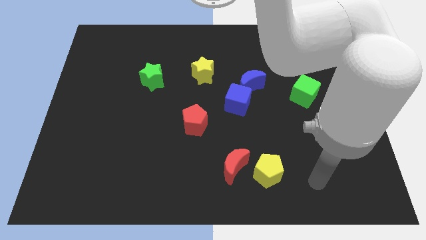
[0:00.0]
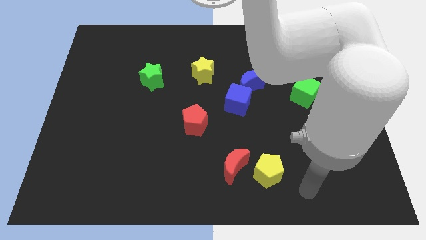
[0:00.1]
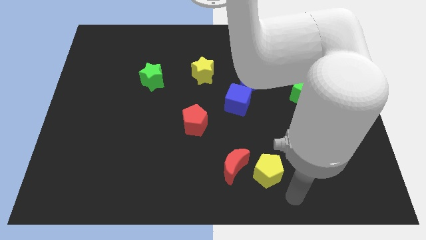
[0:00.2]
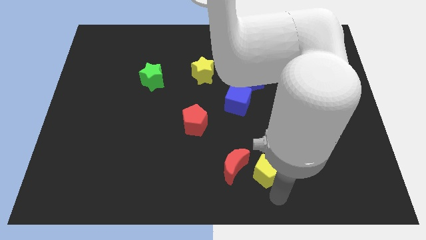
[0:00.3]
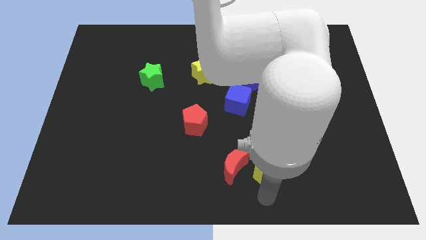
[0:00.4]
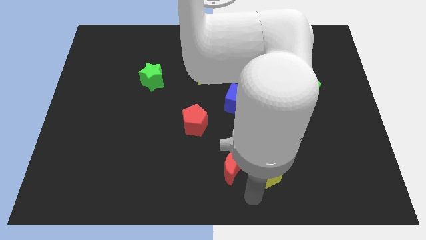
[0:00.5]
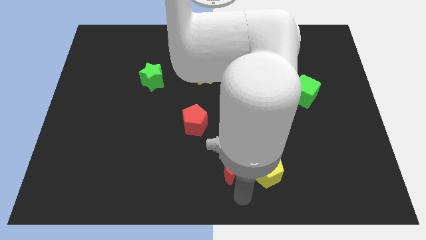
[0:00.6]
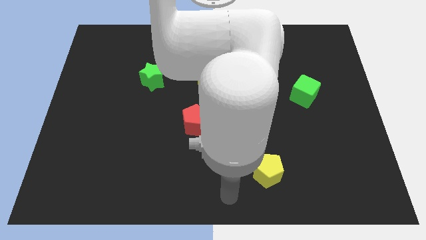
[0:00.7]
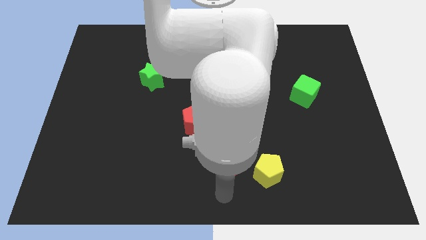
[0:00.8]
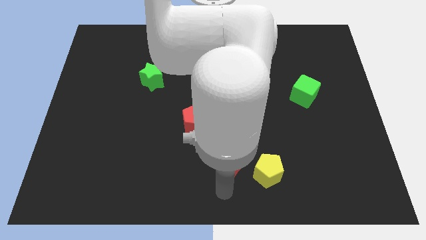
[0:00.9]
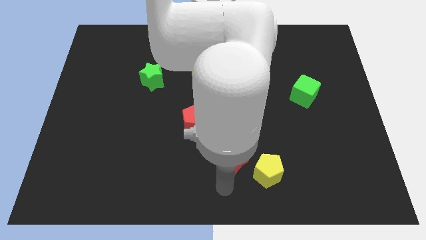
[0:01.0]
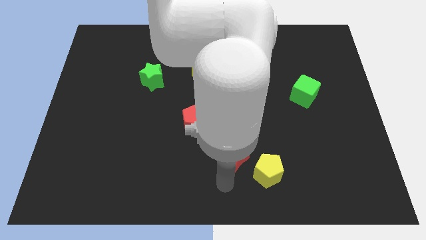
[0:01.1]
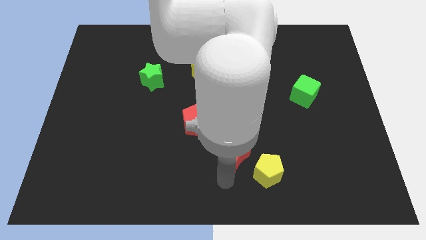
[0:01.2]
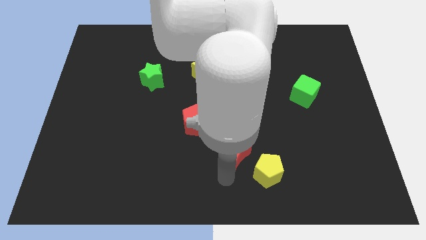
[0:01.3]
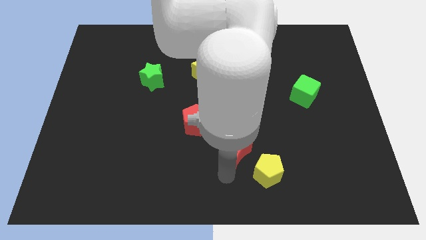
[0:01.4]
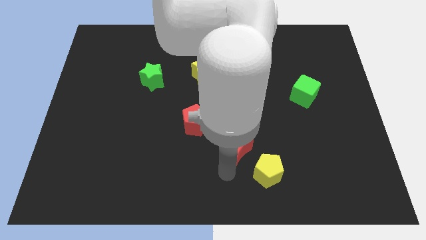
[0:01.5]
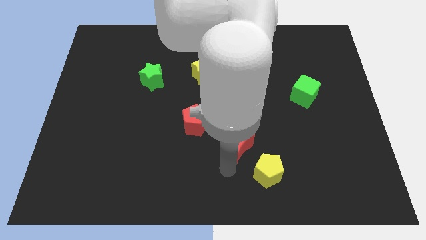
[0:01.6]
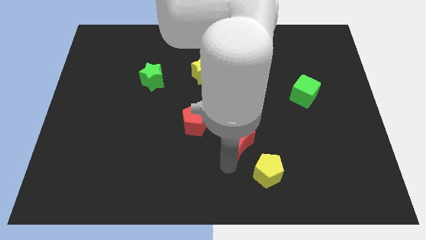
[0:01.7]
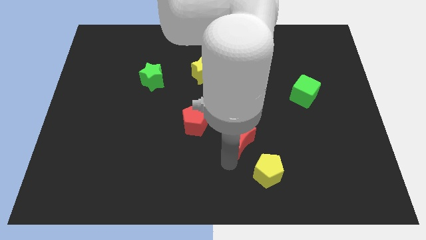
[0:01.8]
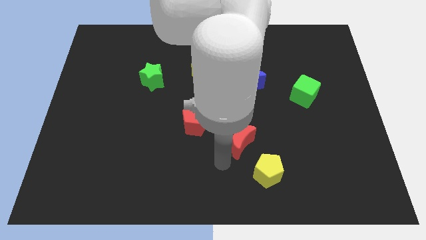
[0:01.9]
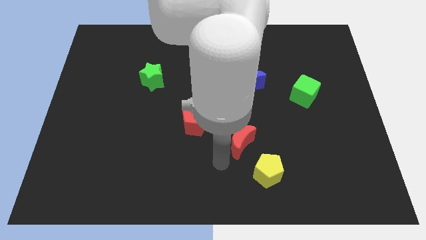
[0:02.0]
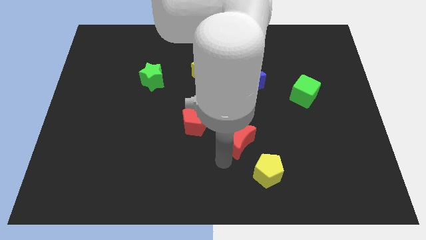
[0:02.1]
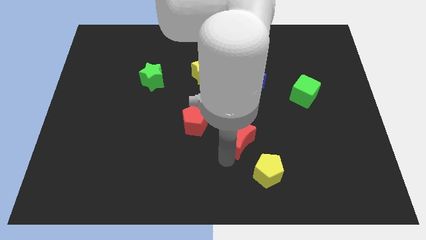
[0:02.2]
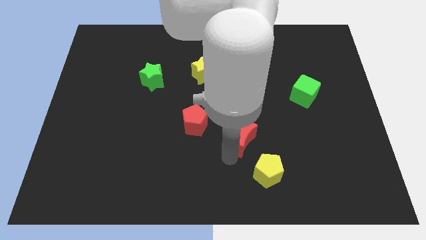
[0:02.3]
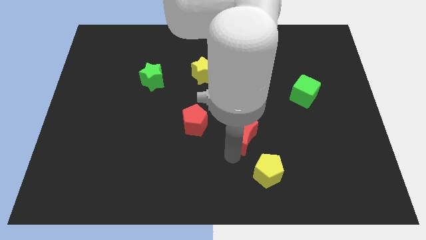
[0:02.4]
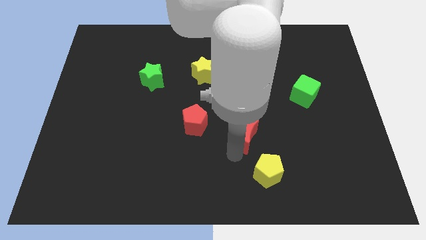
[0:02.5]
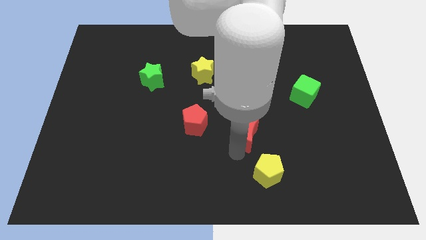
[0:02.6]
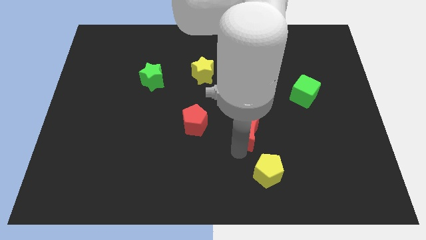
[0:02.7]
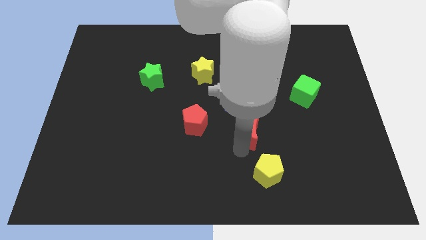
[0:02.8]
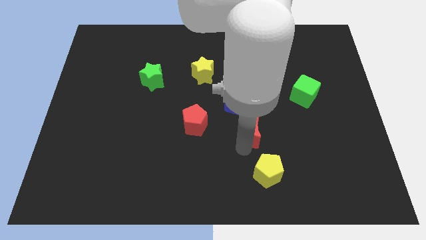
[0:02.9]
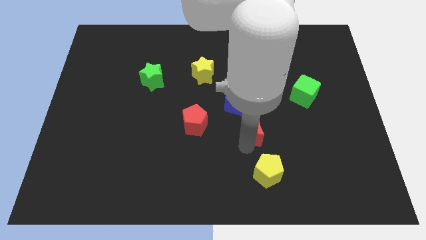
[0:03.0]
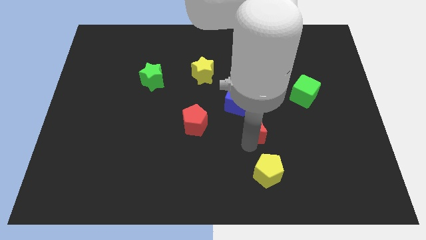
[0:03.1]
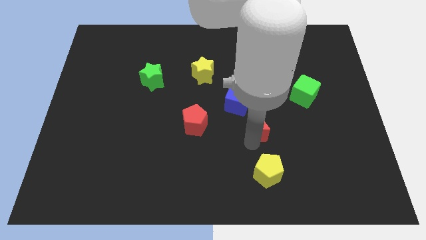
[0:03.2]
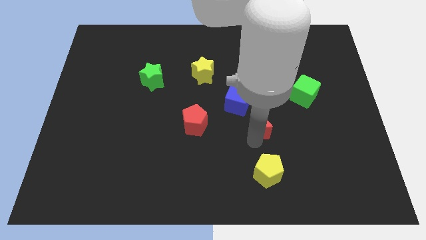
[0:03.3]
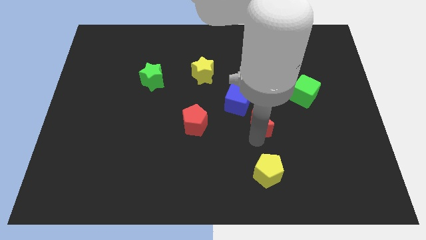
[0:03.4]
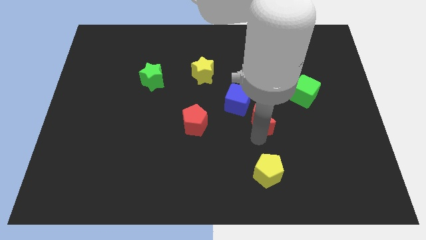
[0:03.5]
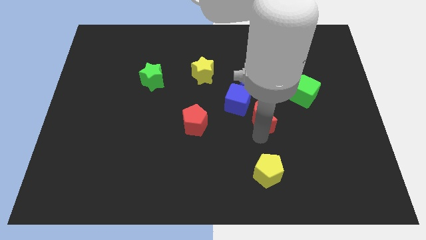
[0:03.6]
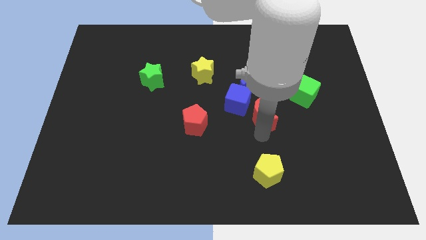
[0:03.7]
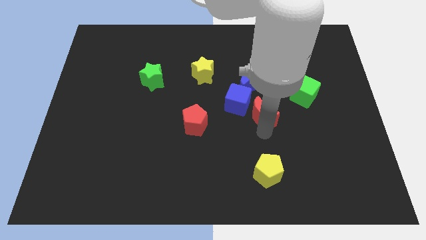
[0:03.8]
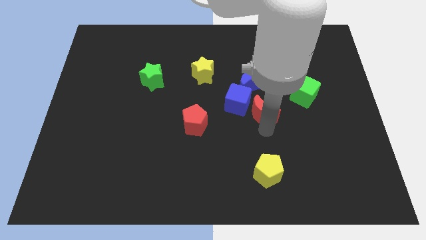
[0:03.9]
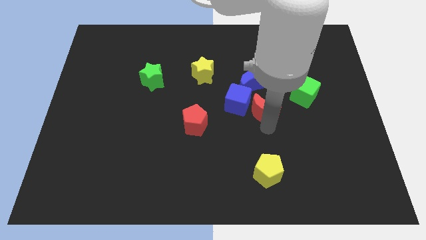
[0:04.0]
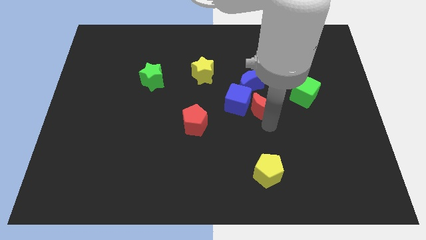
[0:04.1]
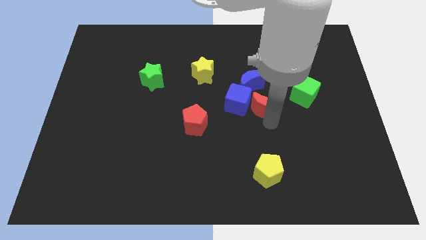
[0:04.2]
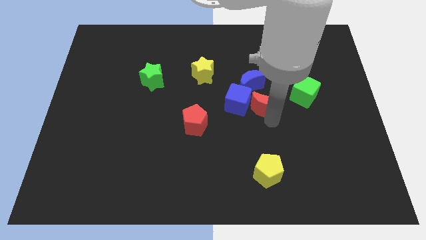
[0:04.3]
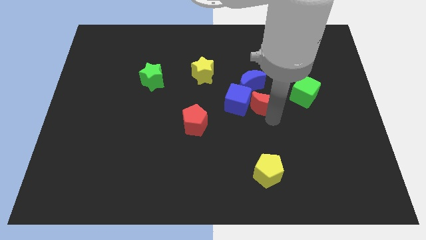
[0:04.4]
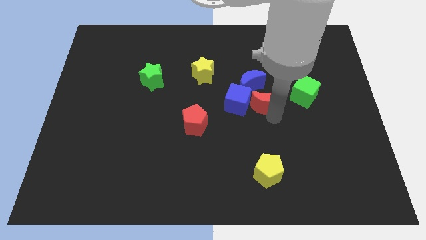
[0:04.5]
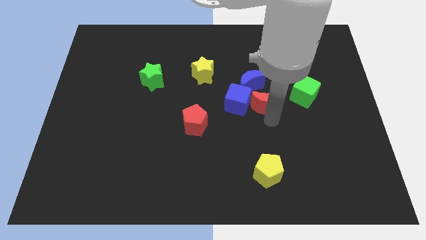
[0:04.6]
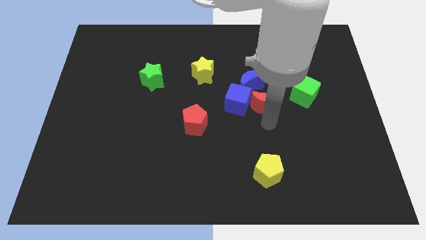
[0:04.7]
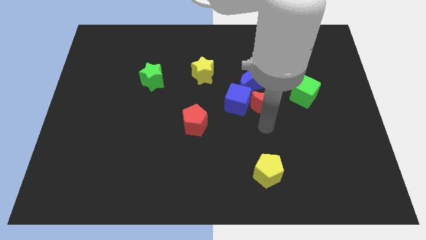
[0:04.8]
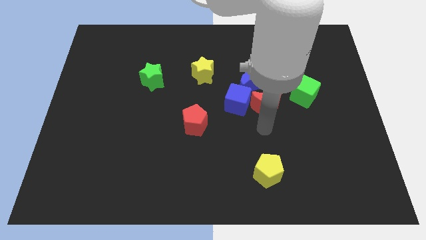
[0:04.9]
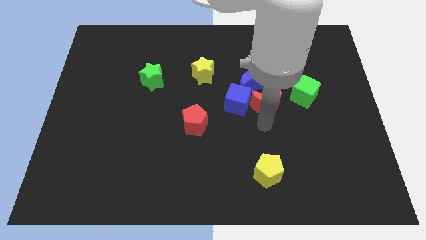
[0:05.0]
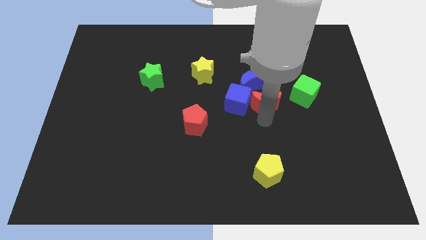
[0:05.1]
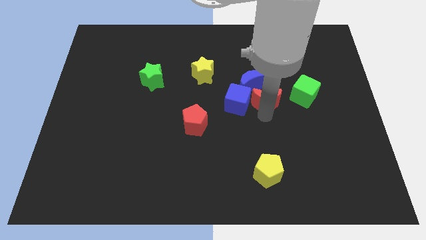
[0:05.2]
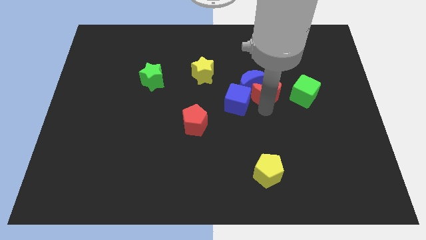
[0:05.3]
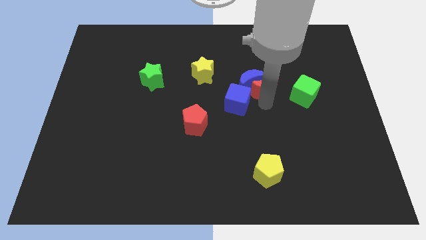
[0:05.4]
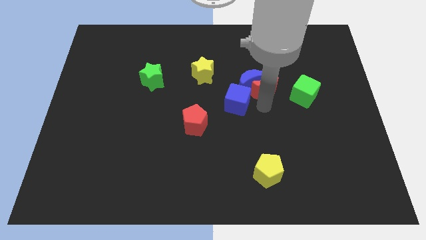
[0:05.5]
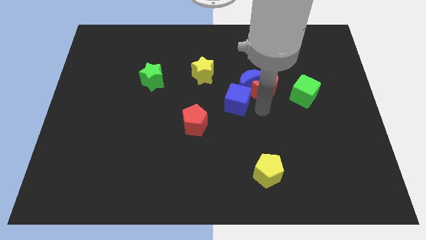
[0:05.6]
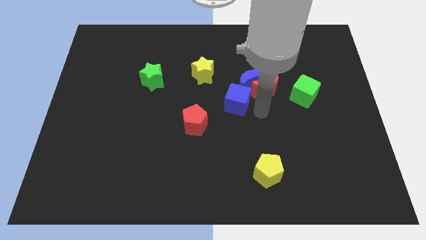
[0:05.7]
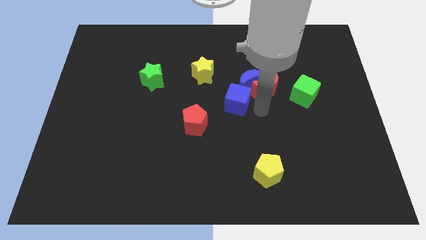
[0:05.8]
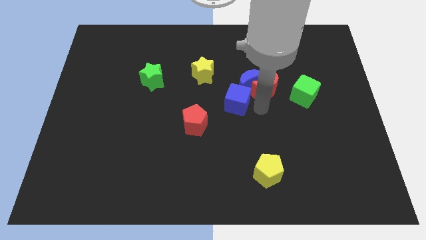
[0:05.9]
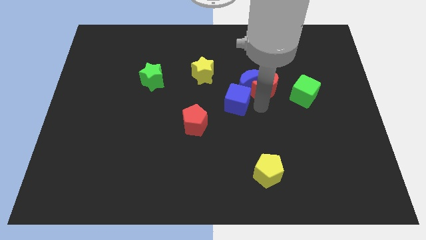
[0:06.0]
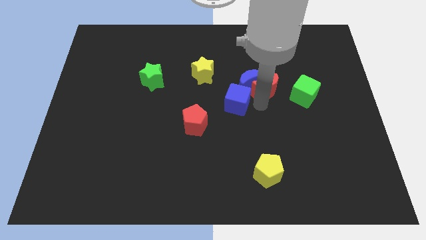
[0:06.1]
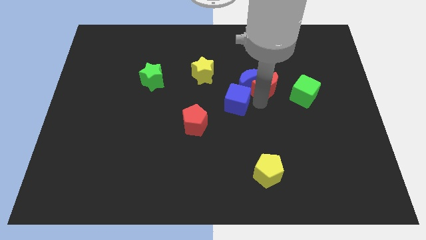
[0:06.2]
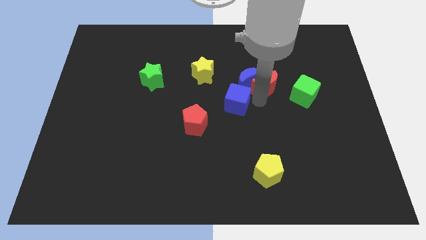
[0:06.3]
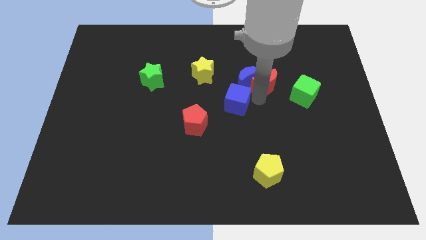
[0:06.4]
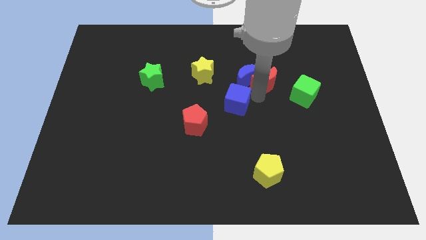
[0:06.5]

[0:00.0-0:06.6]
slide the red moon up

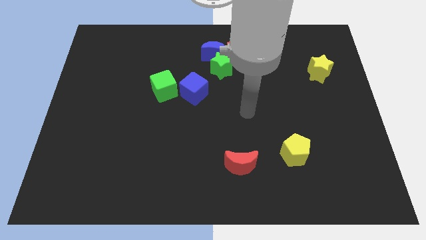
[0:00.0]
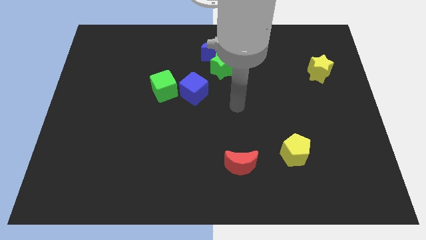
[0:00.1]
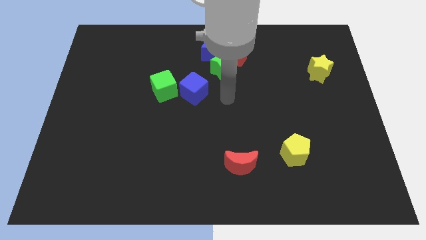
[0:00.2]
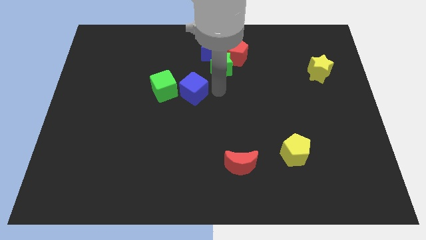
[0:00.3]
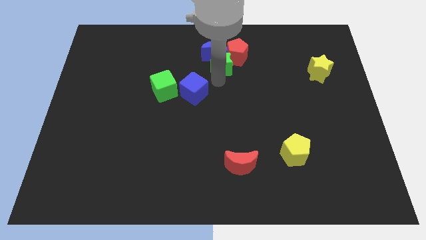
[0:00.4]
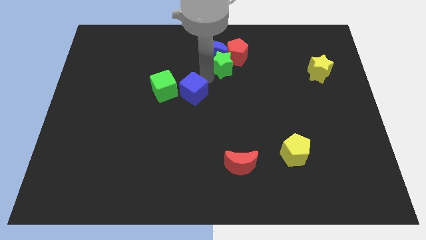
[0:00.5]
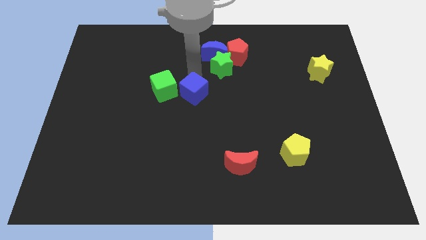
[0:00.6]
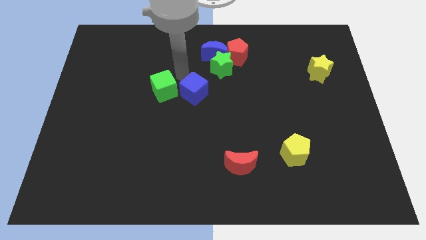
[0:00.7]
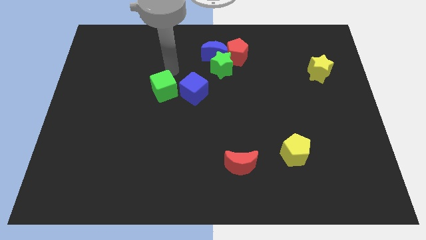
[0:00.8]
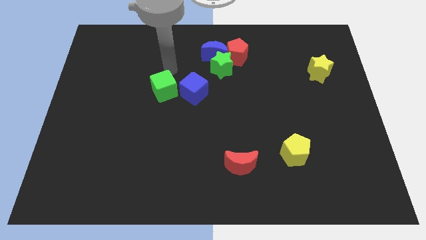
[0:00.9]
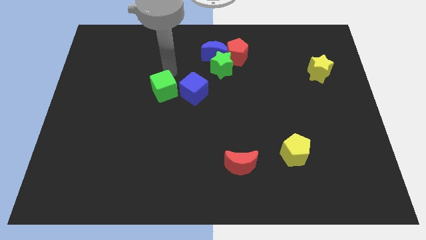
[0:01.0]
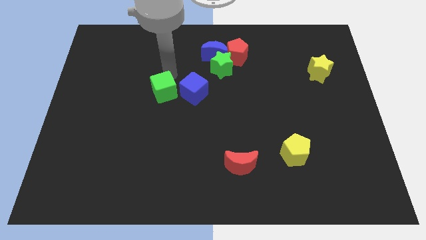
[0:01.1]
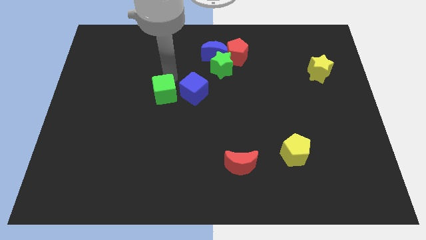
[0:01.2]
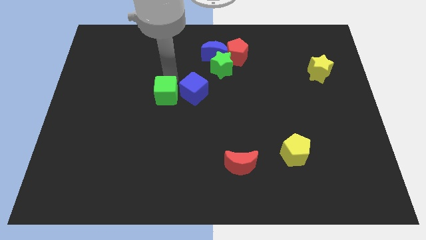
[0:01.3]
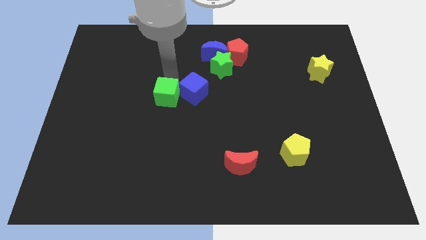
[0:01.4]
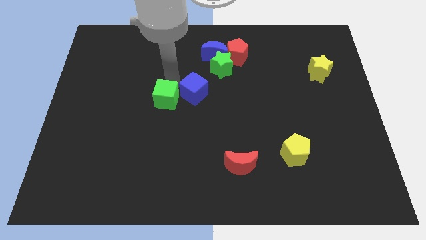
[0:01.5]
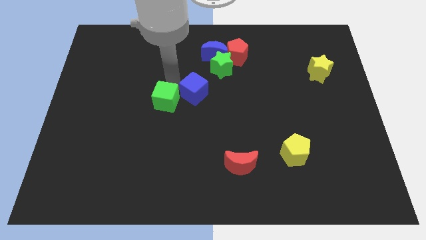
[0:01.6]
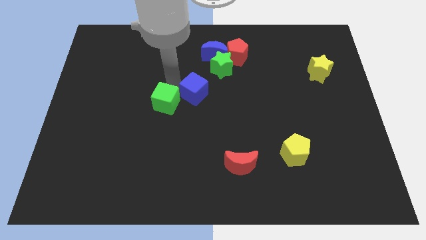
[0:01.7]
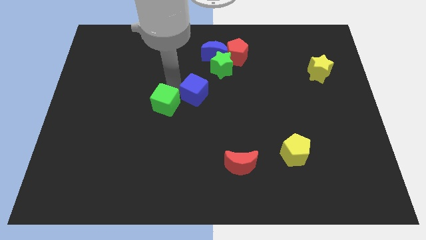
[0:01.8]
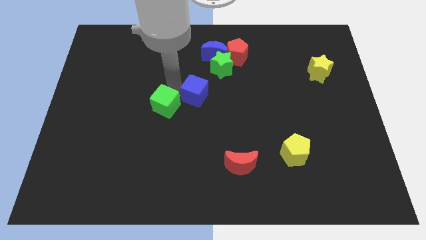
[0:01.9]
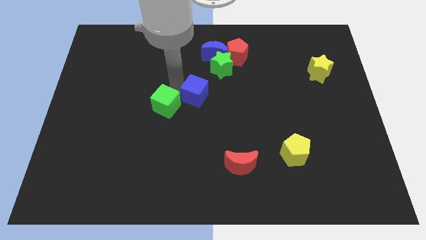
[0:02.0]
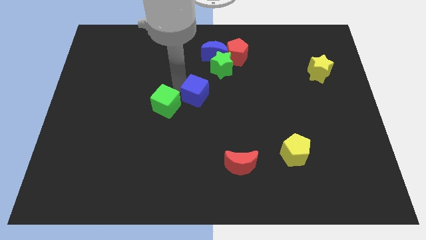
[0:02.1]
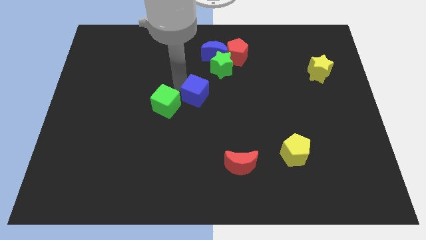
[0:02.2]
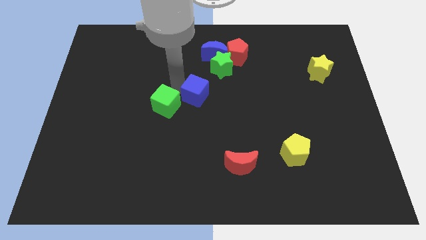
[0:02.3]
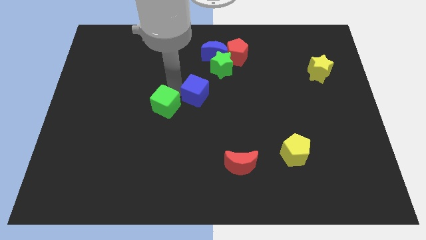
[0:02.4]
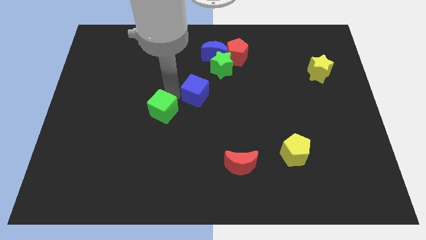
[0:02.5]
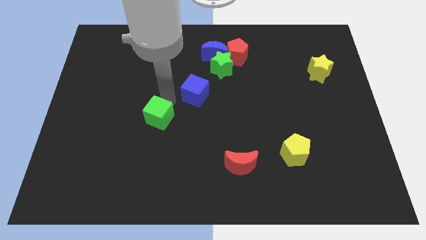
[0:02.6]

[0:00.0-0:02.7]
push the green cube down somewhat
